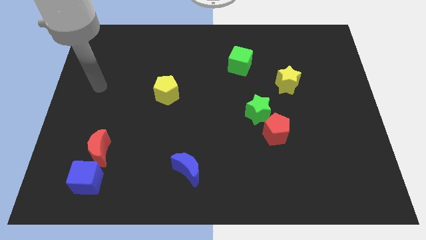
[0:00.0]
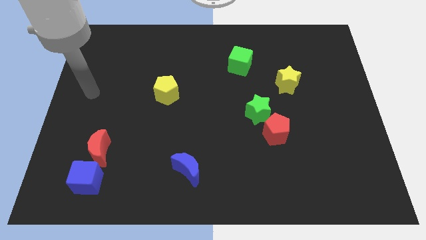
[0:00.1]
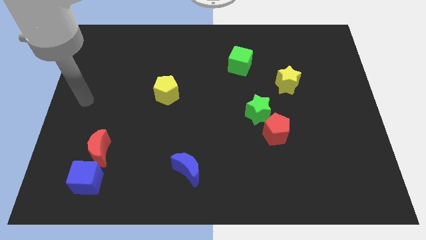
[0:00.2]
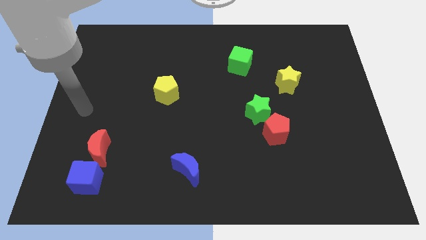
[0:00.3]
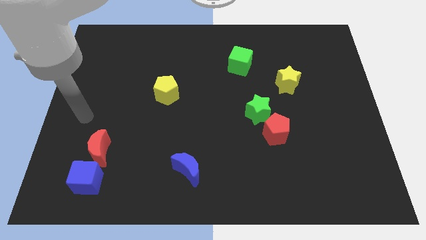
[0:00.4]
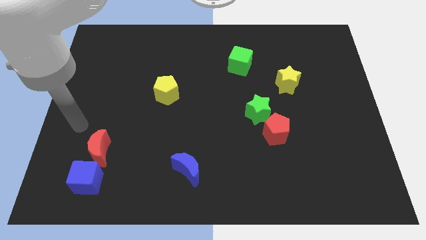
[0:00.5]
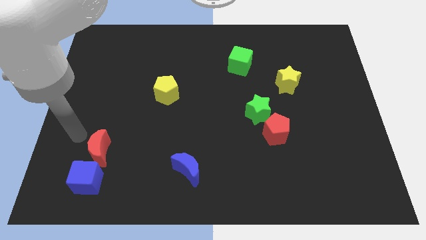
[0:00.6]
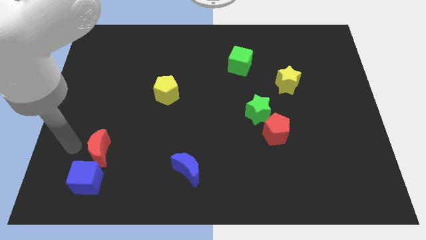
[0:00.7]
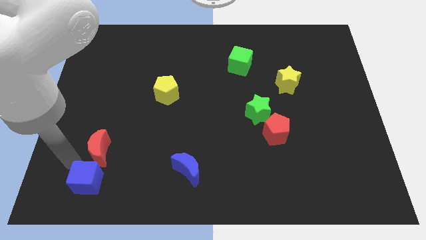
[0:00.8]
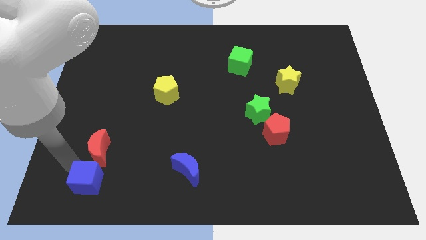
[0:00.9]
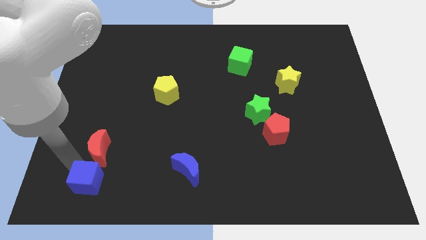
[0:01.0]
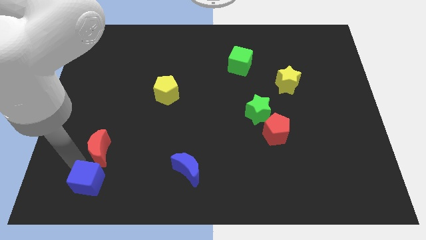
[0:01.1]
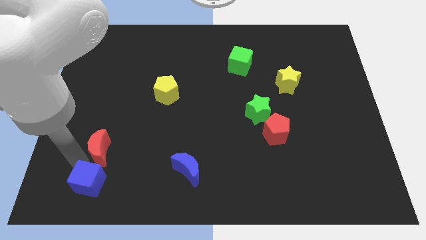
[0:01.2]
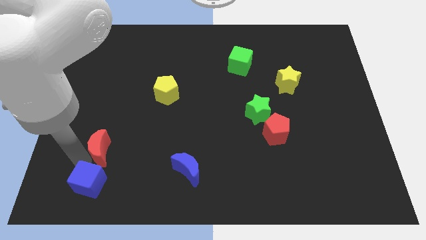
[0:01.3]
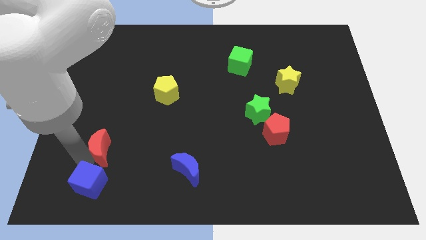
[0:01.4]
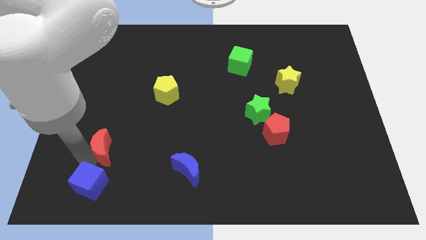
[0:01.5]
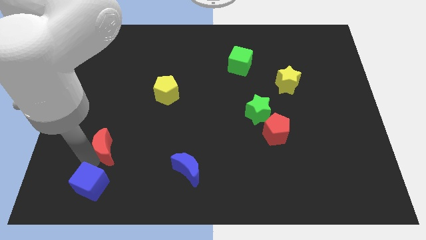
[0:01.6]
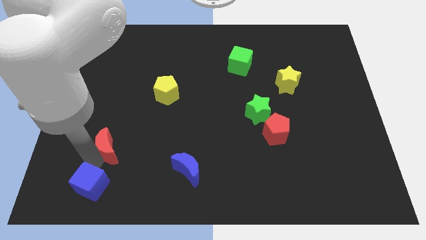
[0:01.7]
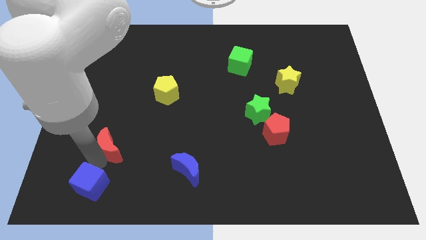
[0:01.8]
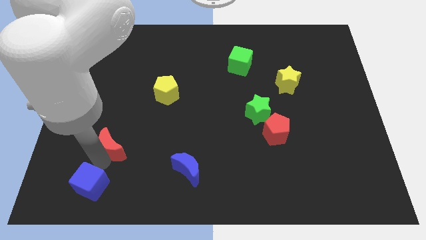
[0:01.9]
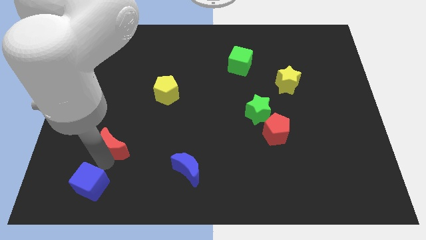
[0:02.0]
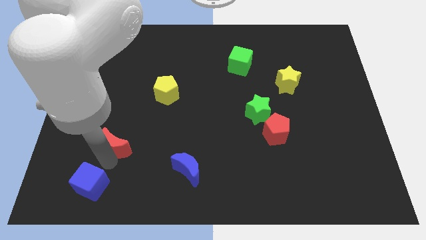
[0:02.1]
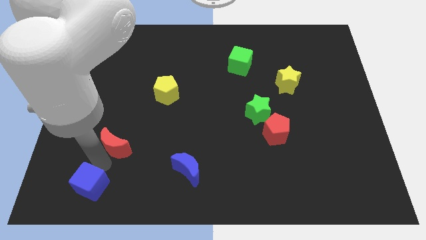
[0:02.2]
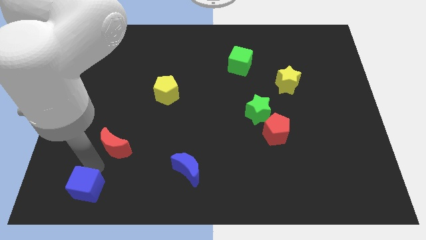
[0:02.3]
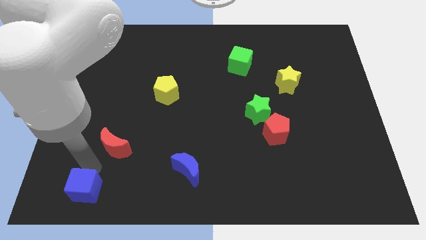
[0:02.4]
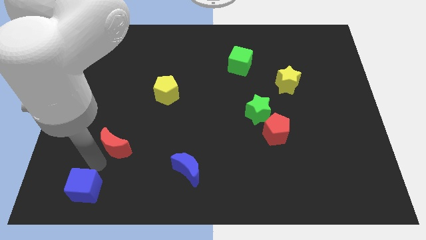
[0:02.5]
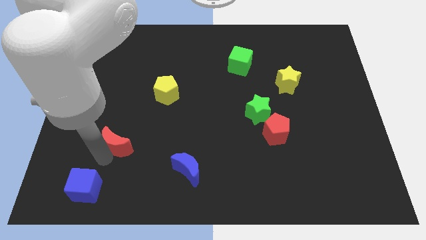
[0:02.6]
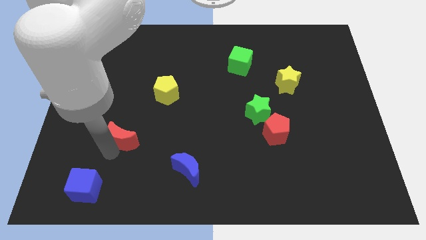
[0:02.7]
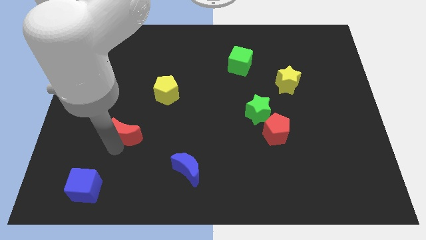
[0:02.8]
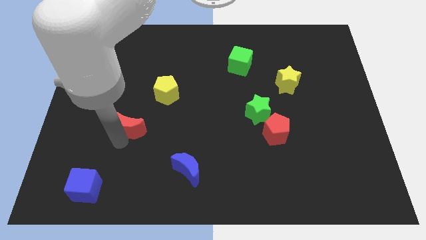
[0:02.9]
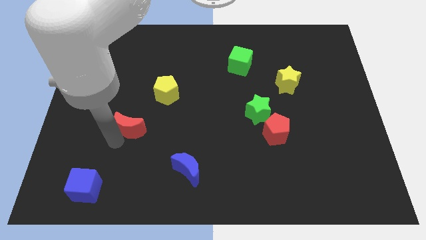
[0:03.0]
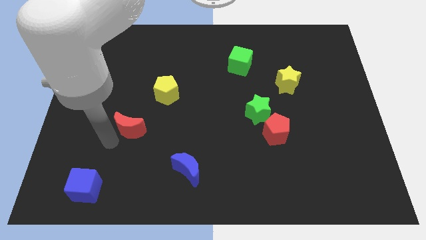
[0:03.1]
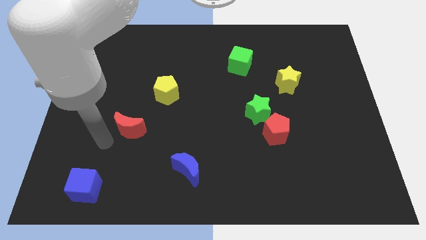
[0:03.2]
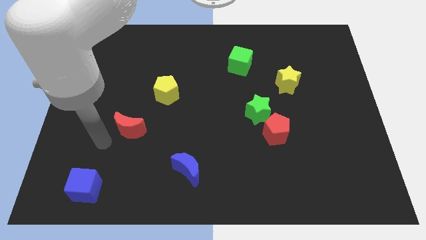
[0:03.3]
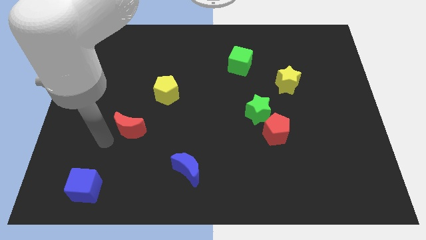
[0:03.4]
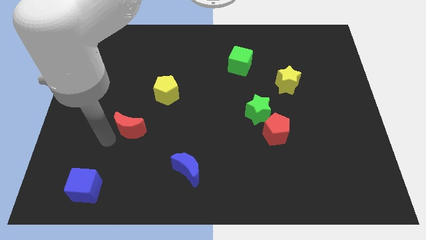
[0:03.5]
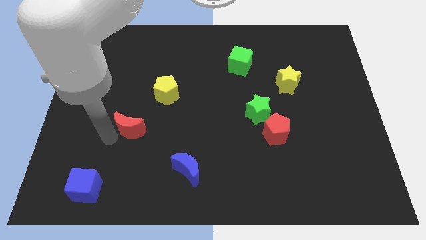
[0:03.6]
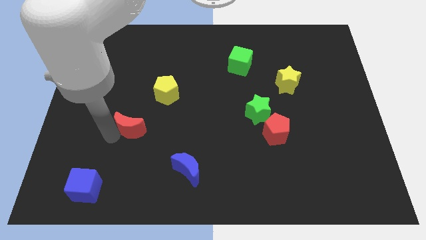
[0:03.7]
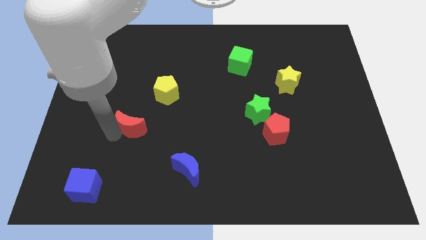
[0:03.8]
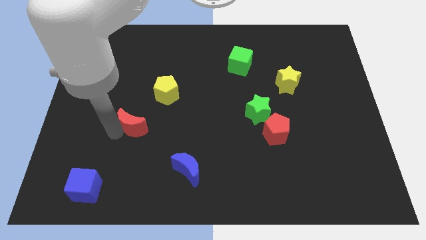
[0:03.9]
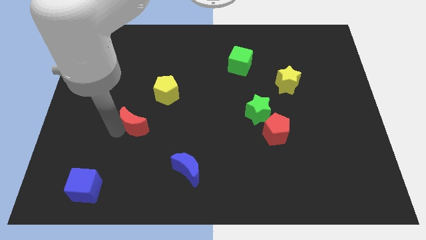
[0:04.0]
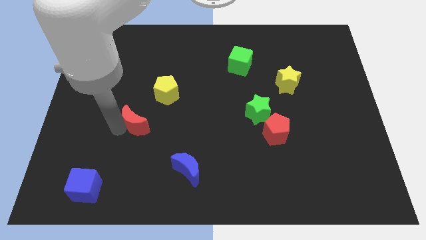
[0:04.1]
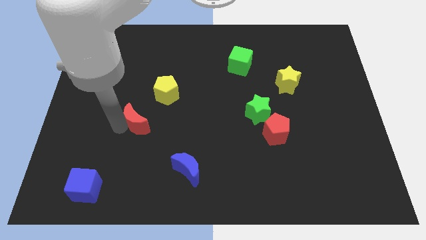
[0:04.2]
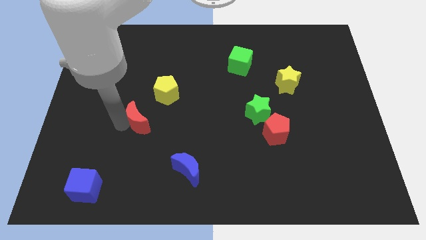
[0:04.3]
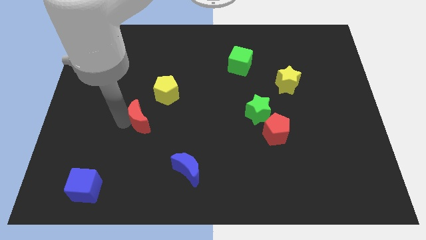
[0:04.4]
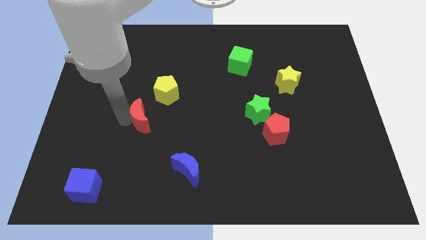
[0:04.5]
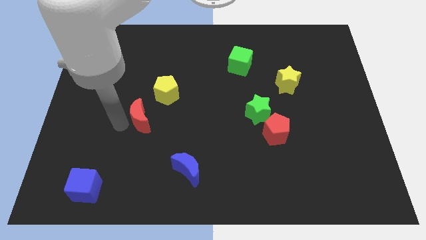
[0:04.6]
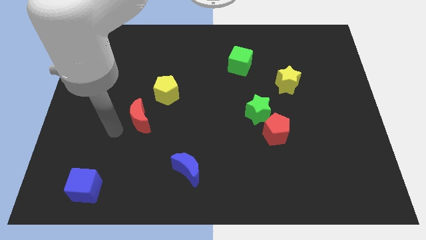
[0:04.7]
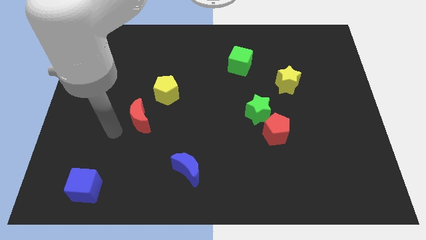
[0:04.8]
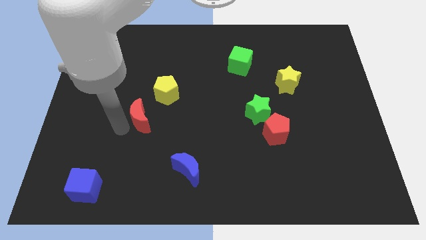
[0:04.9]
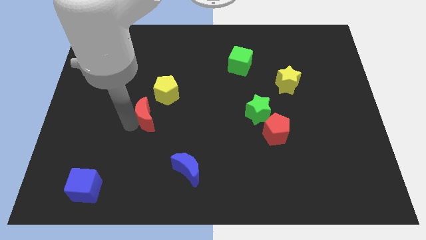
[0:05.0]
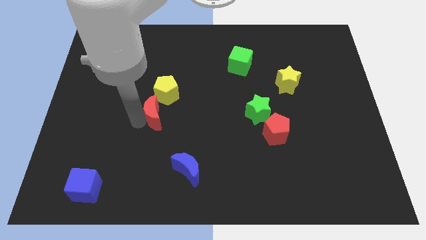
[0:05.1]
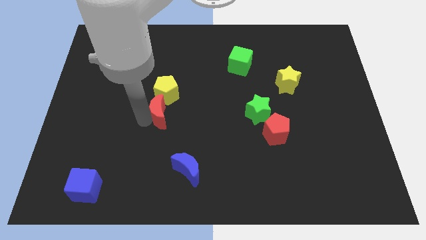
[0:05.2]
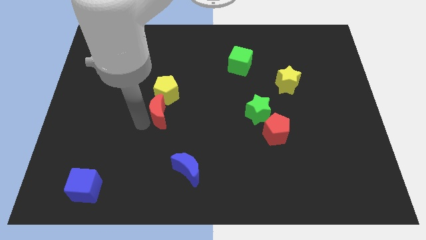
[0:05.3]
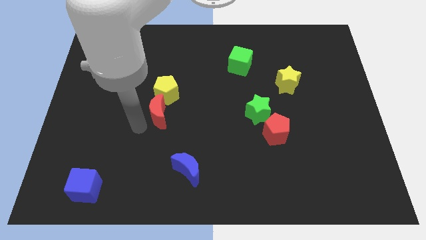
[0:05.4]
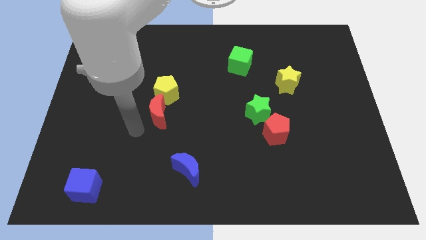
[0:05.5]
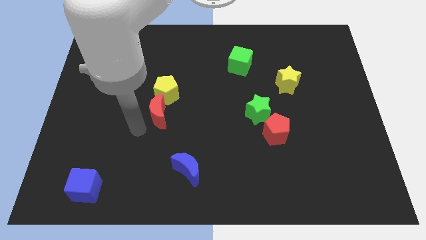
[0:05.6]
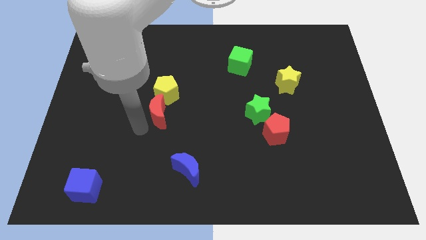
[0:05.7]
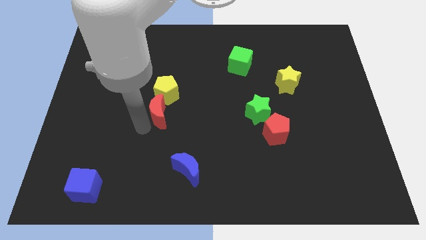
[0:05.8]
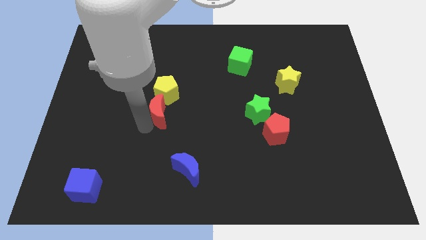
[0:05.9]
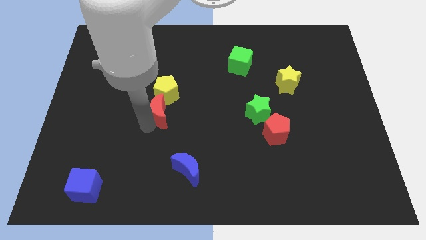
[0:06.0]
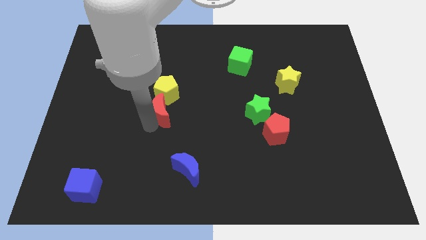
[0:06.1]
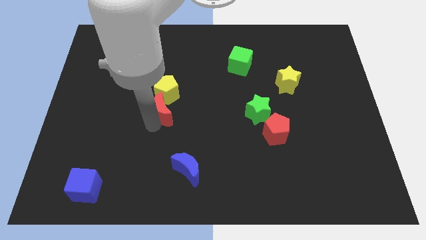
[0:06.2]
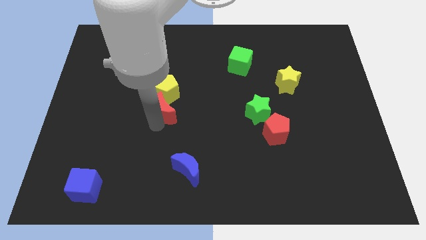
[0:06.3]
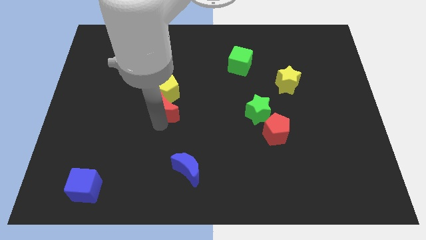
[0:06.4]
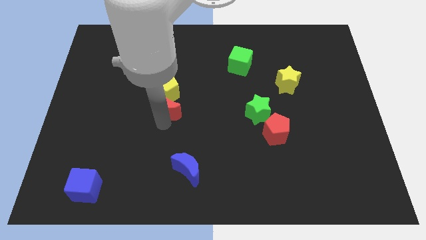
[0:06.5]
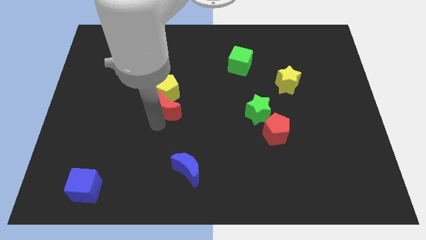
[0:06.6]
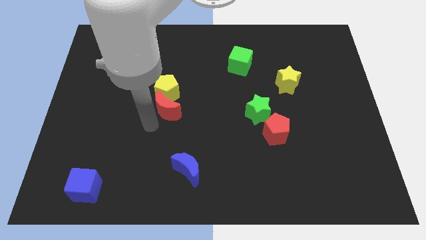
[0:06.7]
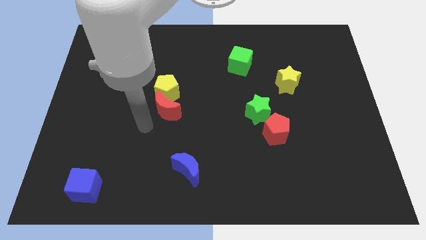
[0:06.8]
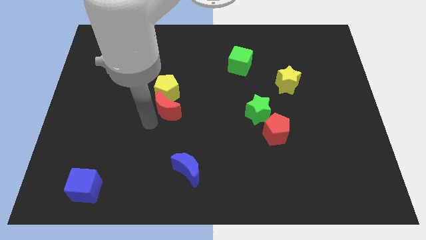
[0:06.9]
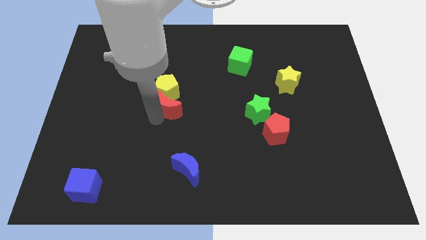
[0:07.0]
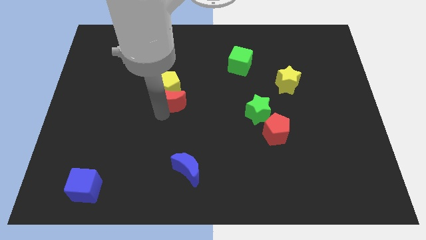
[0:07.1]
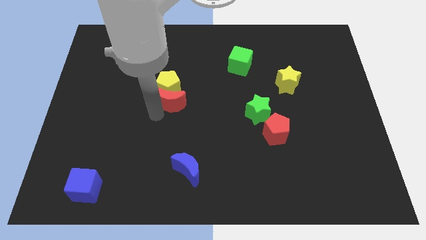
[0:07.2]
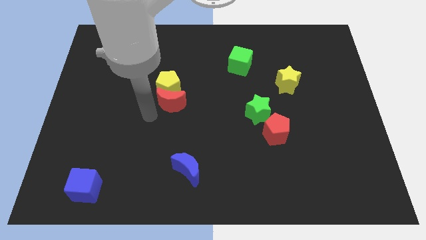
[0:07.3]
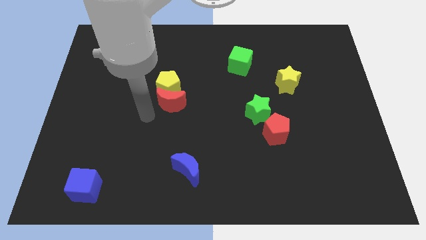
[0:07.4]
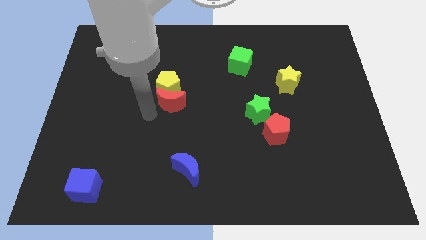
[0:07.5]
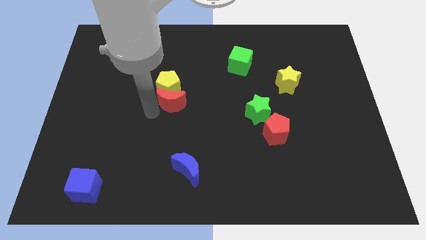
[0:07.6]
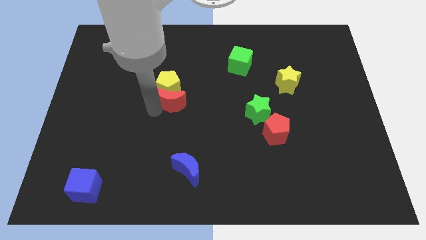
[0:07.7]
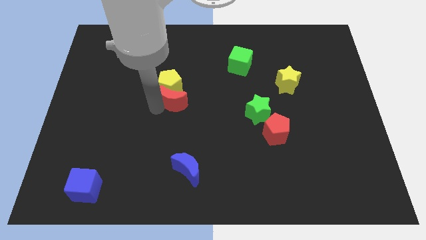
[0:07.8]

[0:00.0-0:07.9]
slide the red moon upwards and right

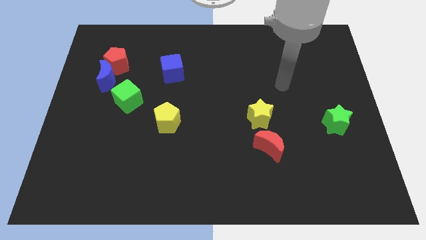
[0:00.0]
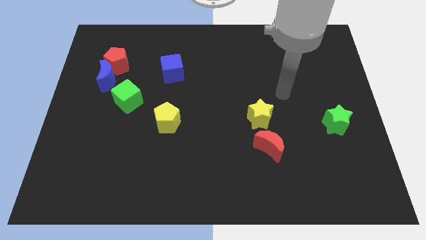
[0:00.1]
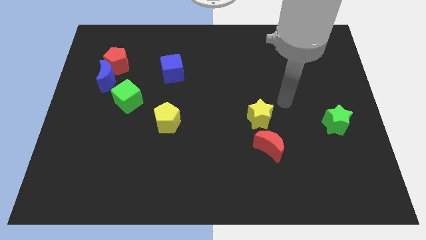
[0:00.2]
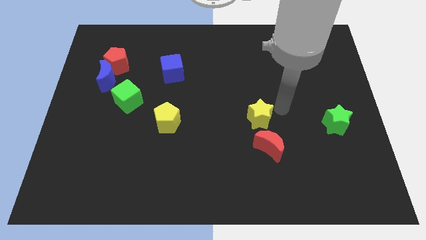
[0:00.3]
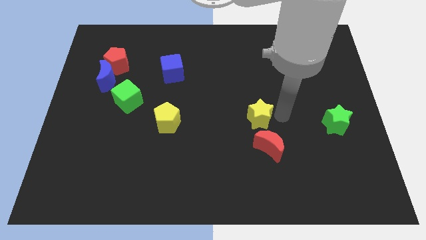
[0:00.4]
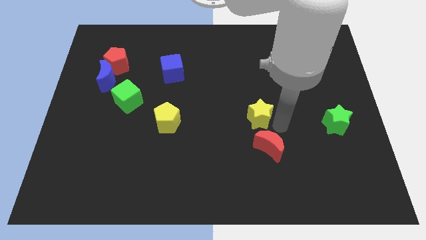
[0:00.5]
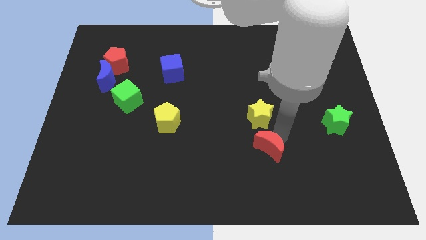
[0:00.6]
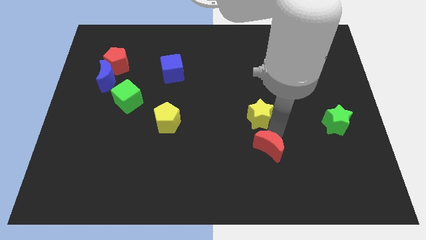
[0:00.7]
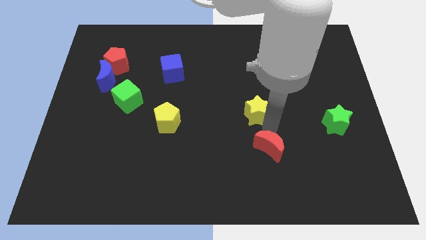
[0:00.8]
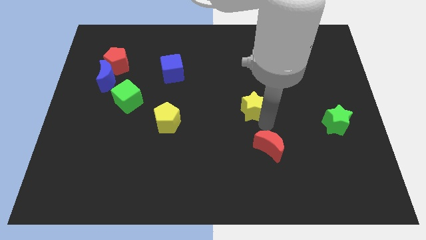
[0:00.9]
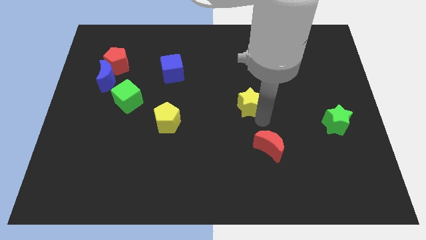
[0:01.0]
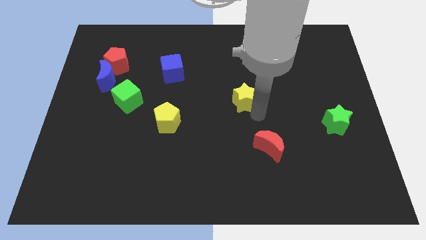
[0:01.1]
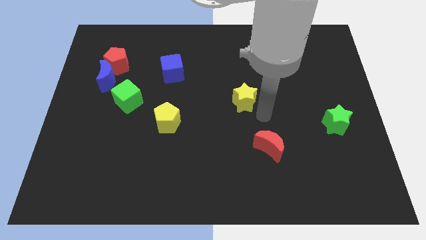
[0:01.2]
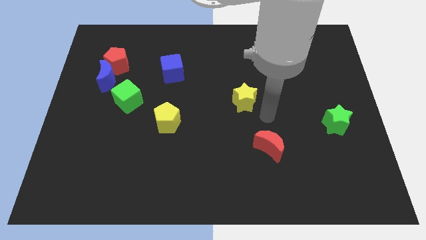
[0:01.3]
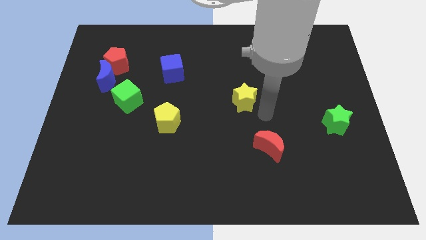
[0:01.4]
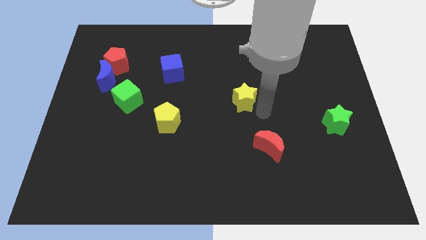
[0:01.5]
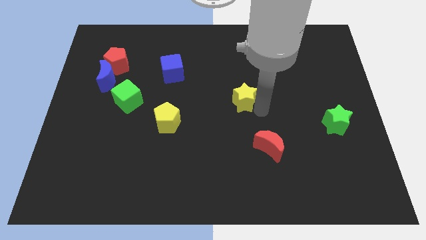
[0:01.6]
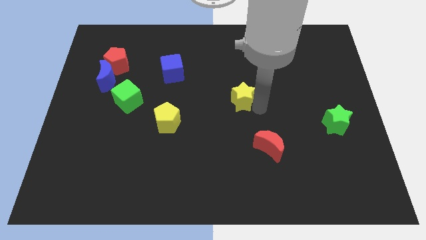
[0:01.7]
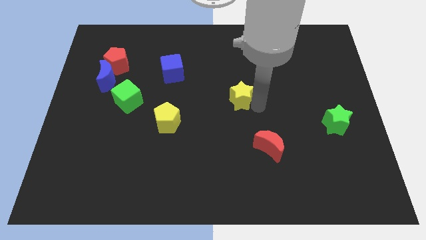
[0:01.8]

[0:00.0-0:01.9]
slide the yellow star diagonally up and left slightly
